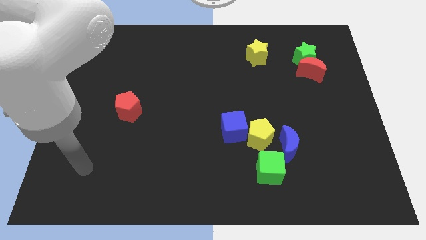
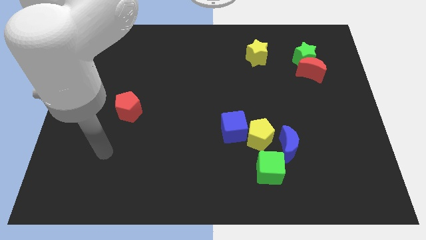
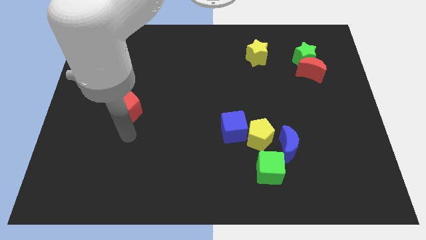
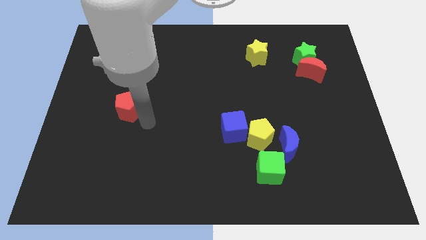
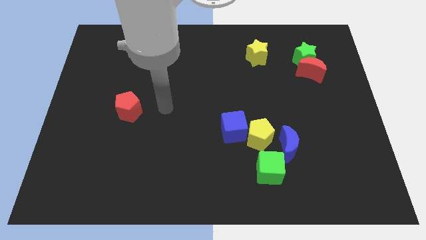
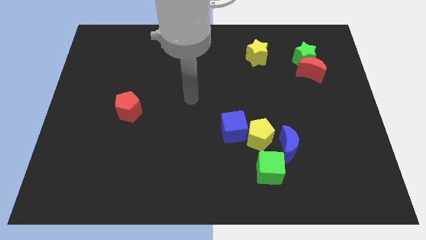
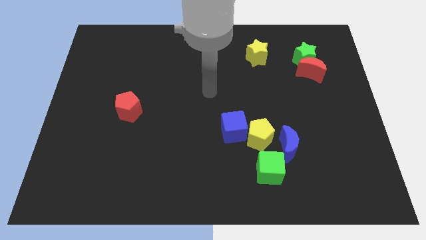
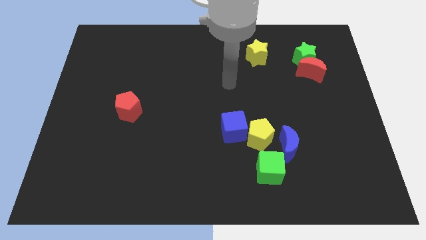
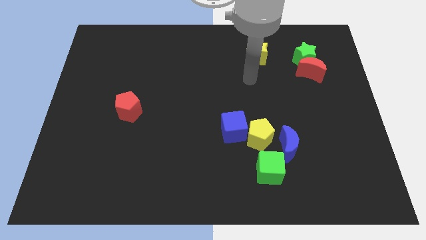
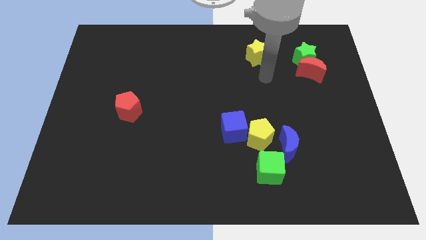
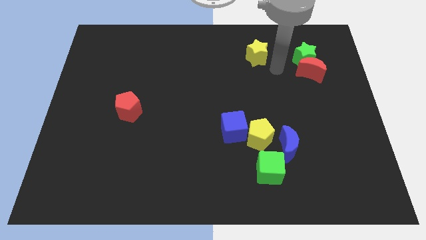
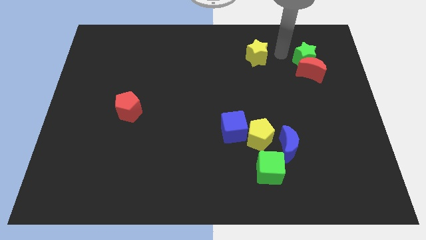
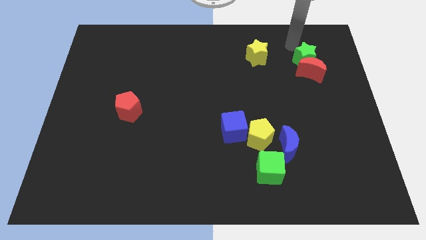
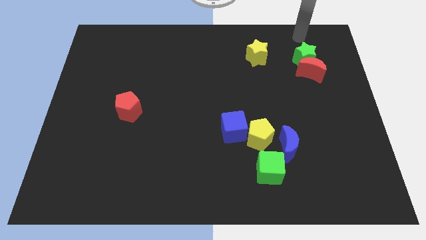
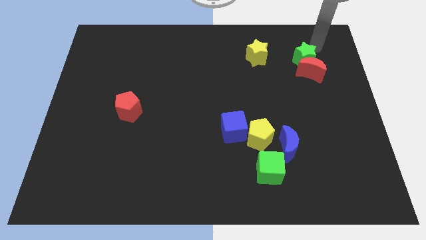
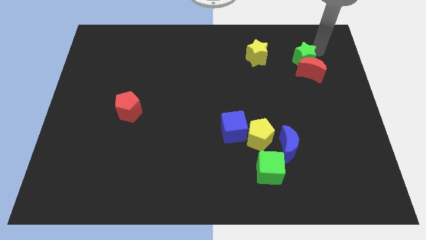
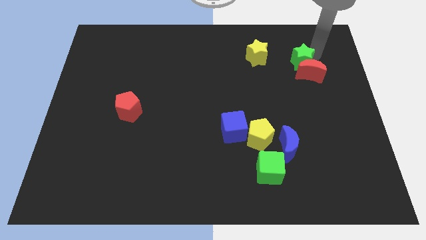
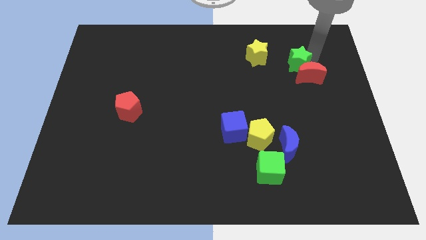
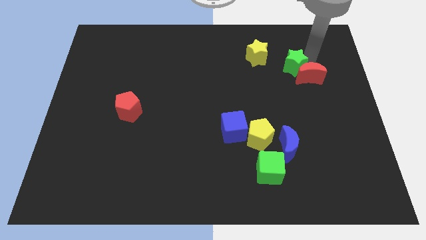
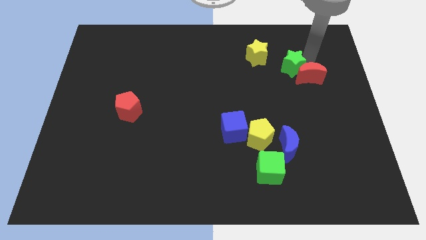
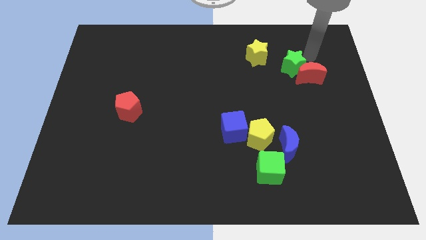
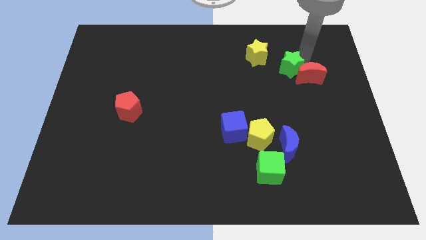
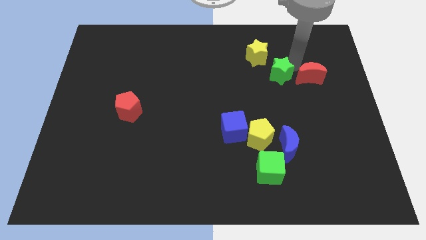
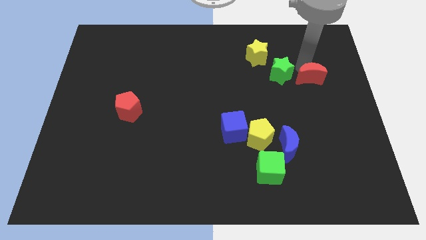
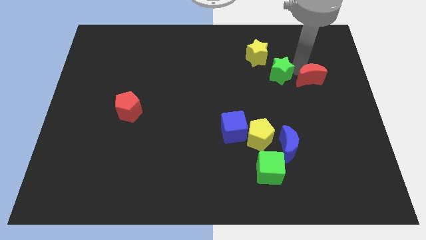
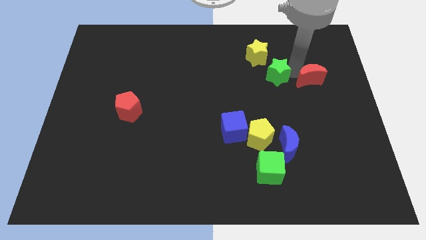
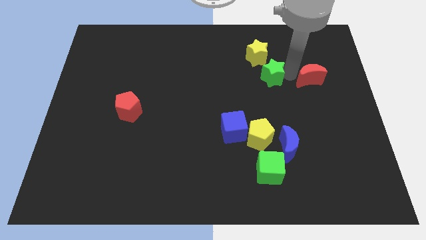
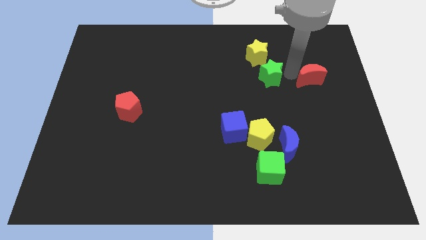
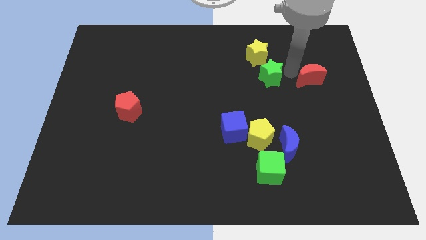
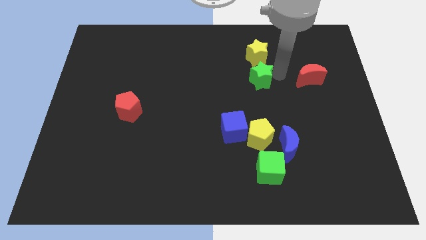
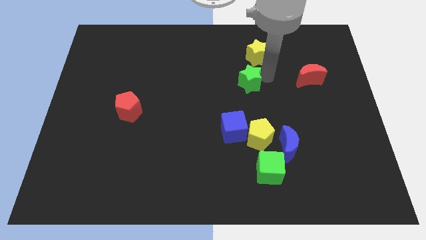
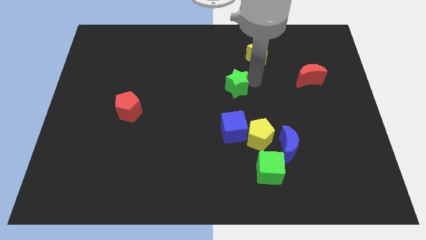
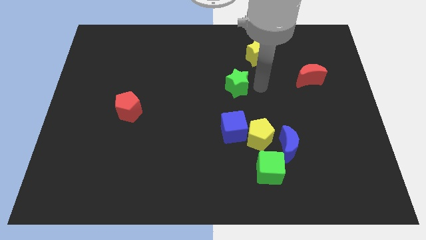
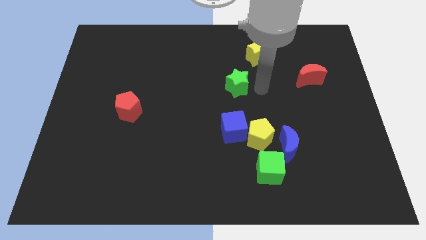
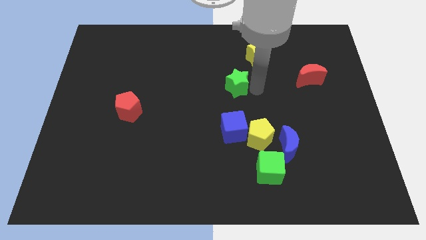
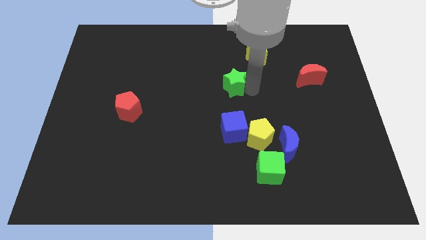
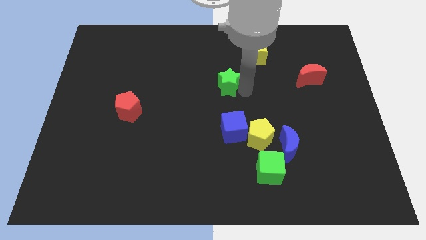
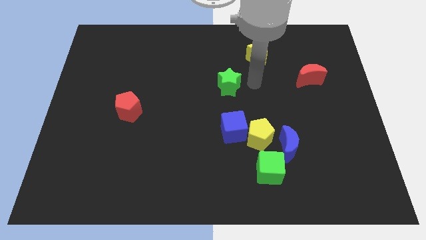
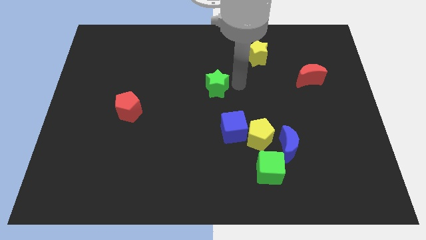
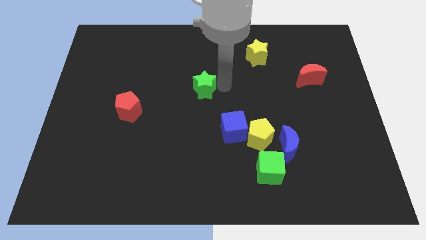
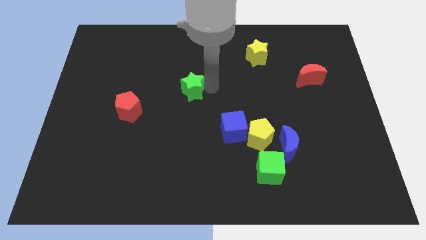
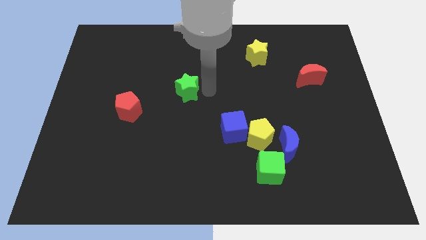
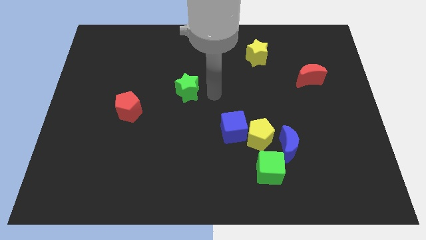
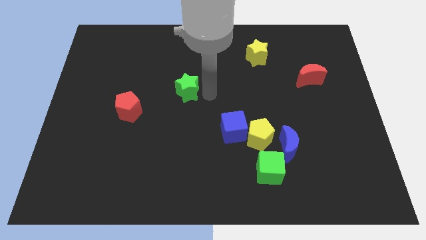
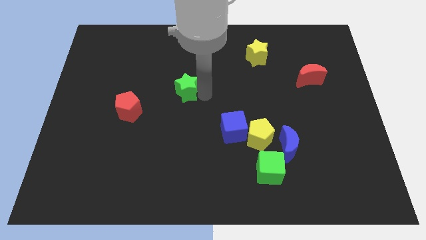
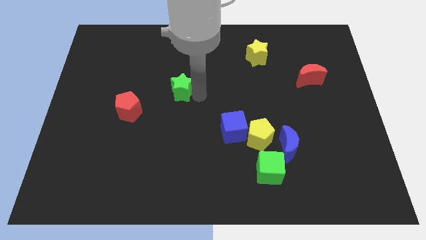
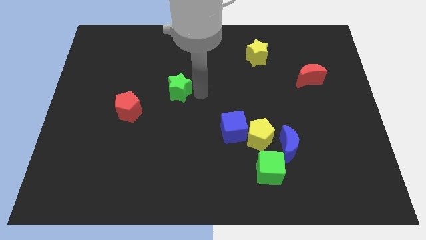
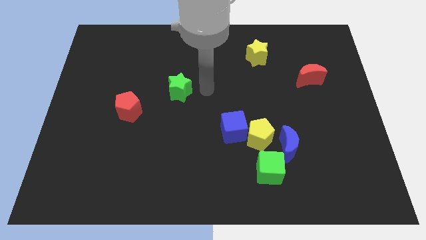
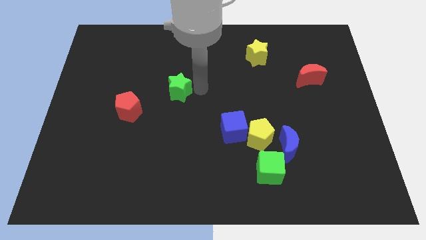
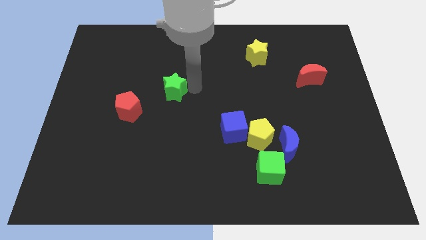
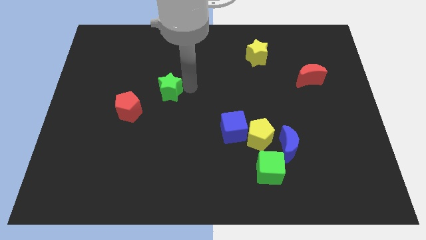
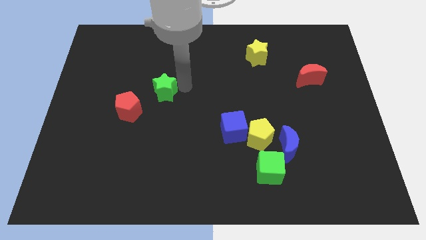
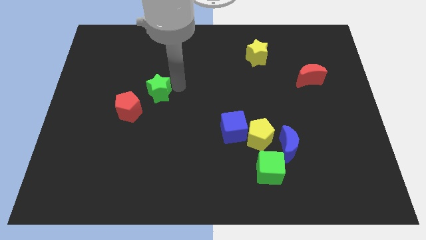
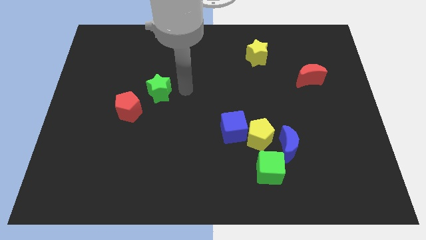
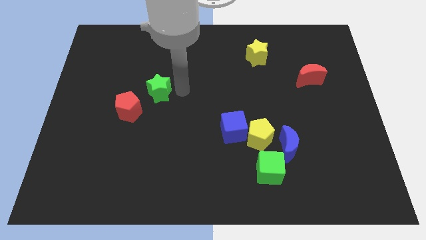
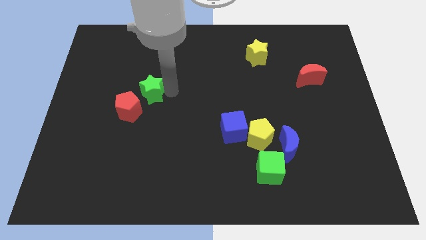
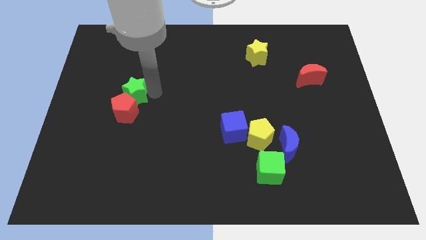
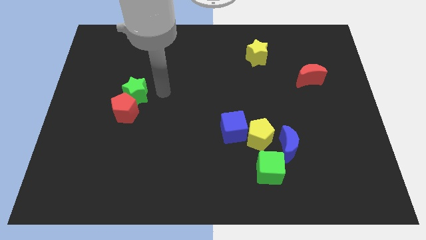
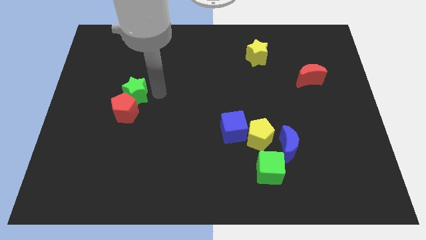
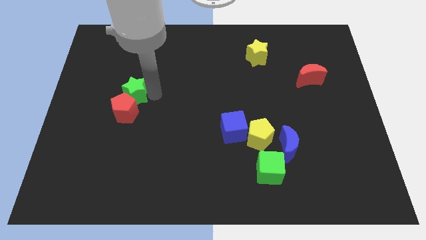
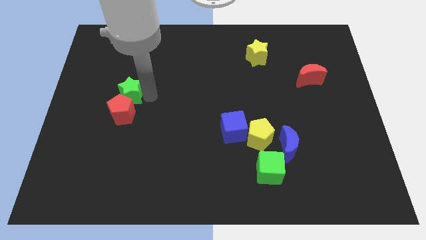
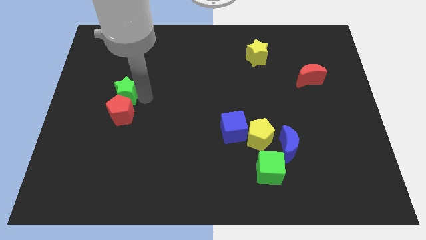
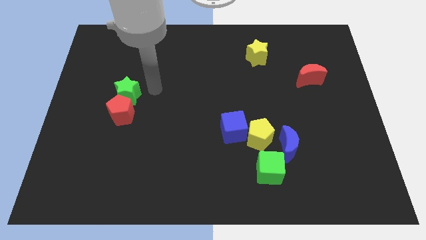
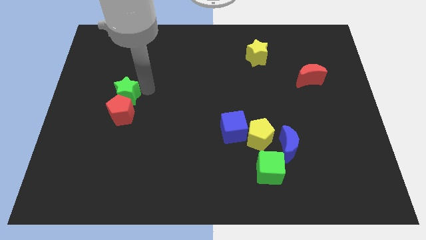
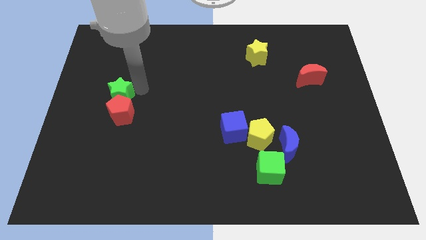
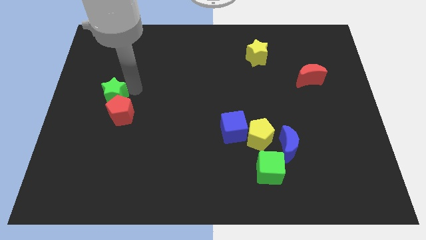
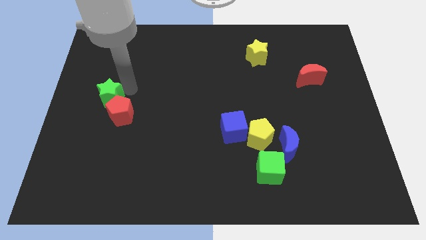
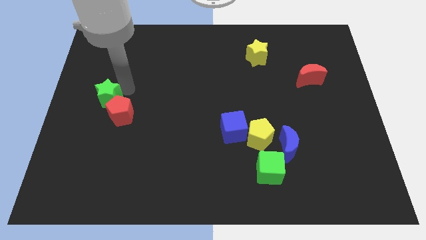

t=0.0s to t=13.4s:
move the green star to the center left
